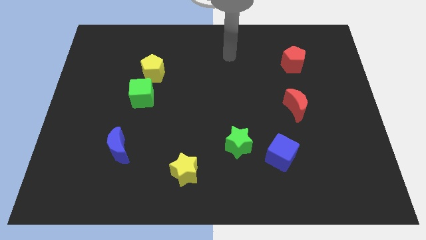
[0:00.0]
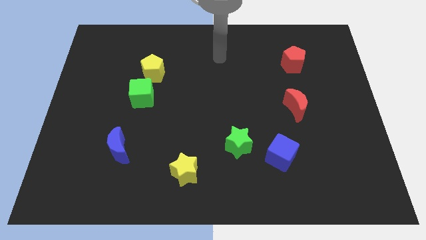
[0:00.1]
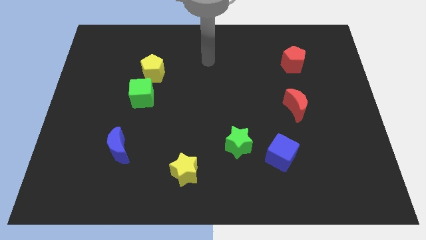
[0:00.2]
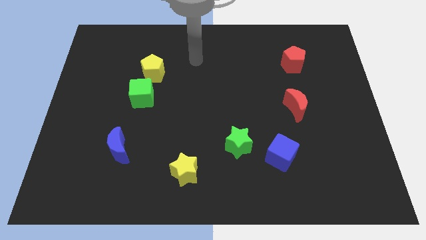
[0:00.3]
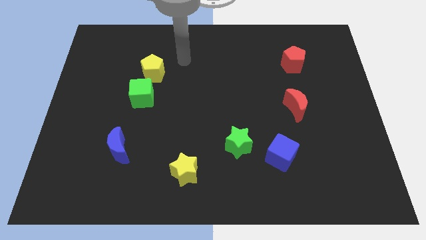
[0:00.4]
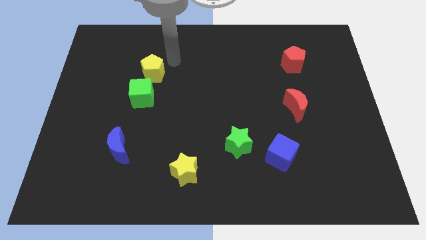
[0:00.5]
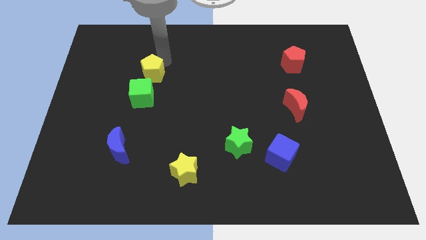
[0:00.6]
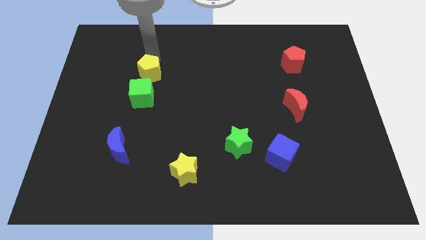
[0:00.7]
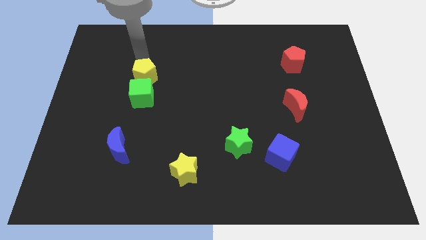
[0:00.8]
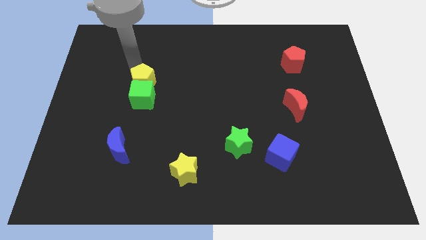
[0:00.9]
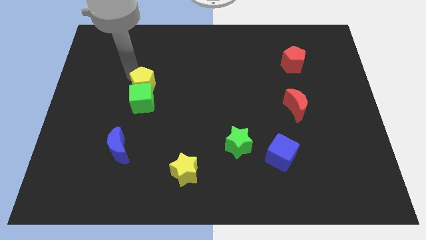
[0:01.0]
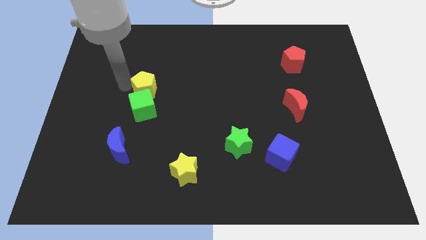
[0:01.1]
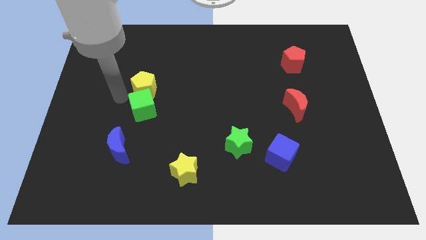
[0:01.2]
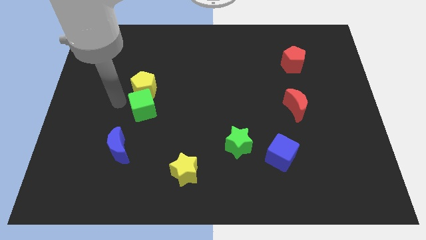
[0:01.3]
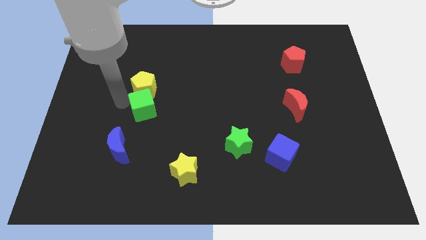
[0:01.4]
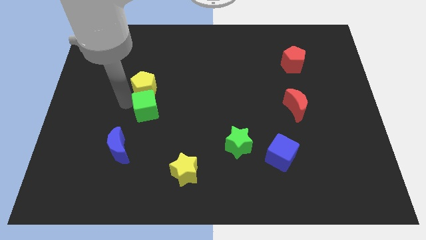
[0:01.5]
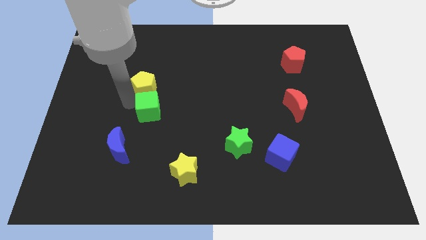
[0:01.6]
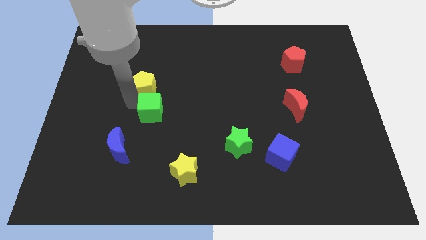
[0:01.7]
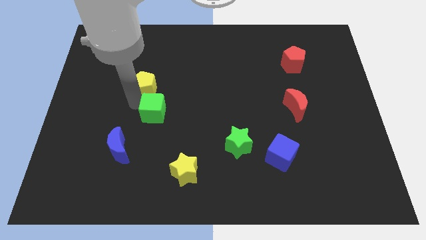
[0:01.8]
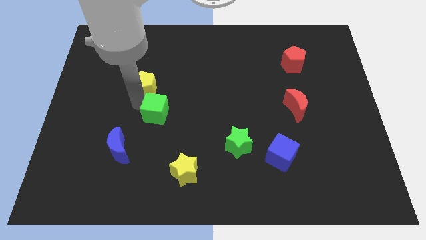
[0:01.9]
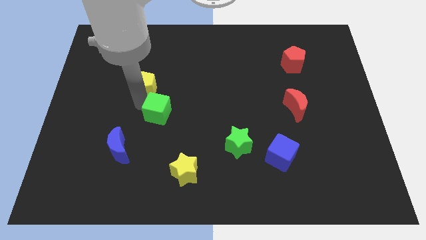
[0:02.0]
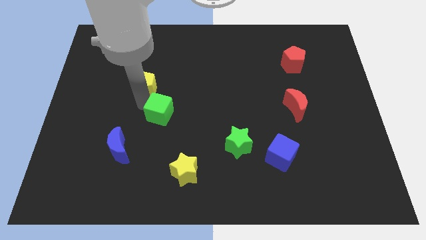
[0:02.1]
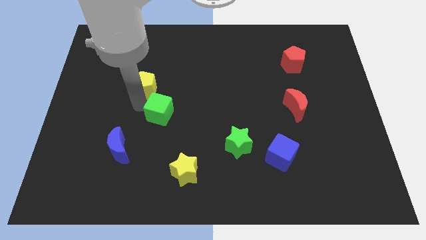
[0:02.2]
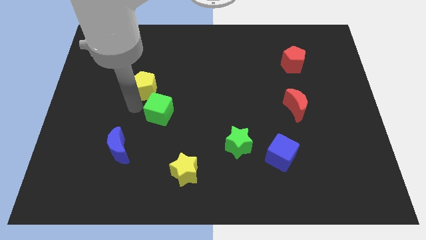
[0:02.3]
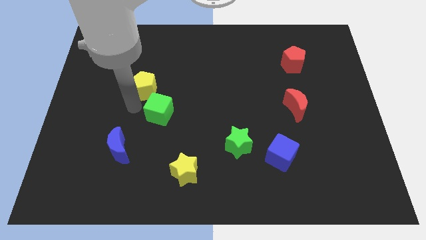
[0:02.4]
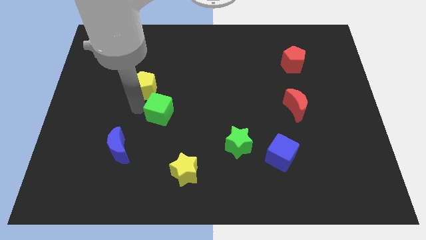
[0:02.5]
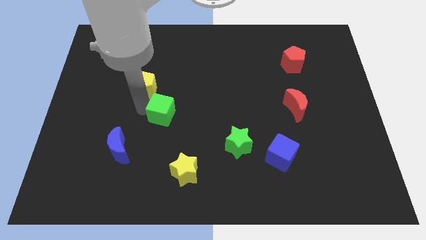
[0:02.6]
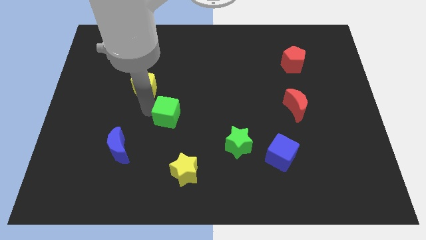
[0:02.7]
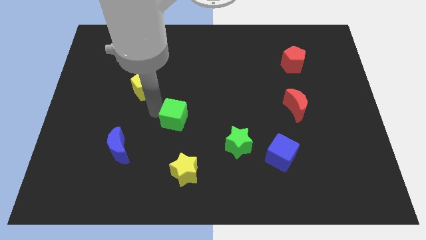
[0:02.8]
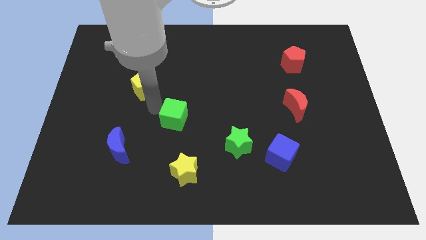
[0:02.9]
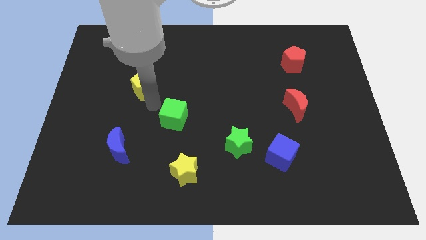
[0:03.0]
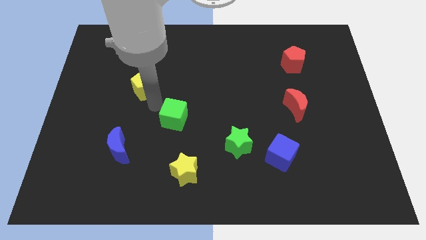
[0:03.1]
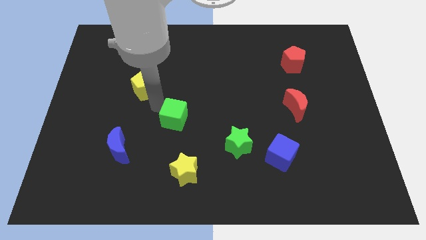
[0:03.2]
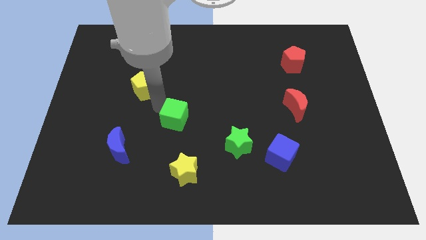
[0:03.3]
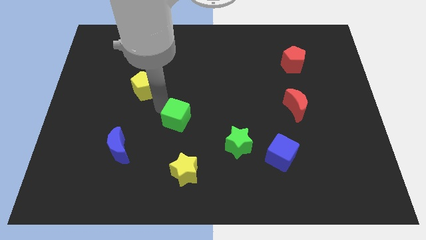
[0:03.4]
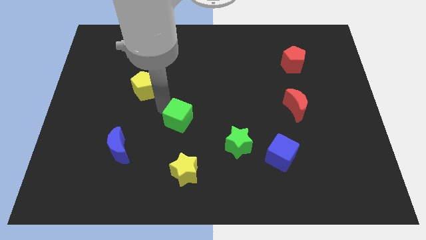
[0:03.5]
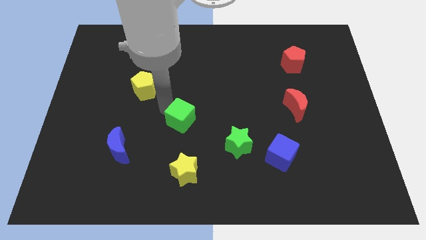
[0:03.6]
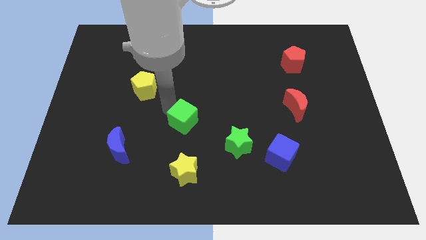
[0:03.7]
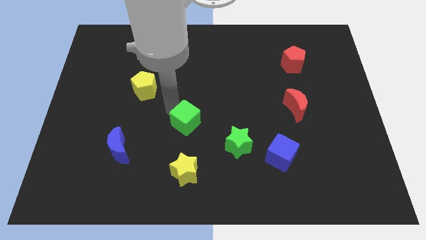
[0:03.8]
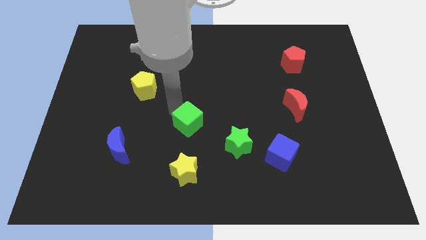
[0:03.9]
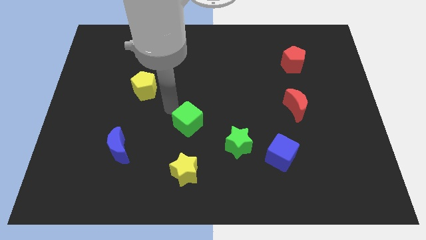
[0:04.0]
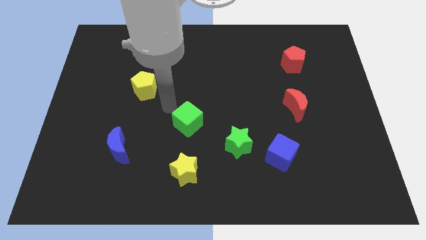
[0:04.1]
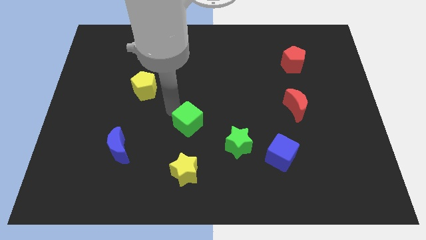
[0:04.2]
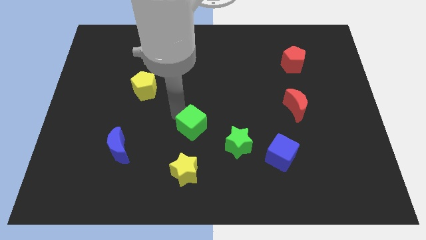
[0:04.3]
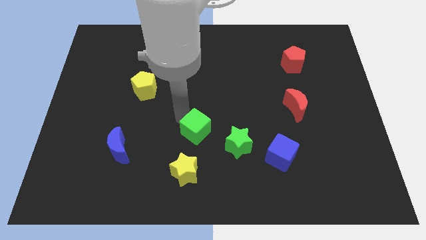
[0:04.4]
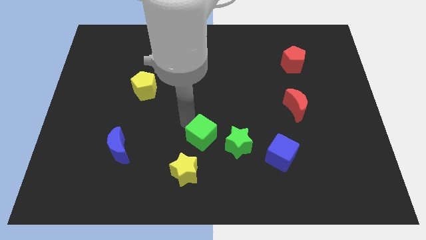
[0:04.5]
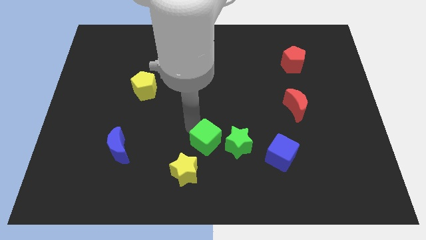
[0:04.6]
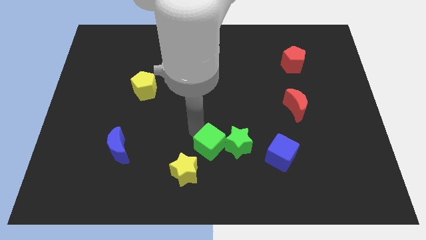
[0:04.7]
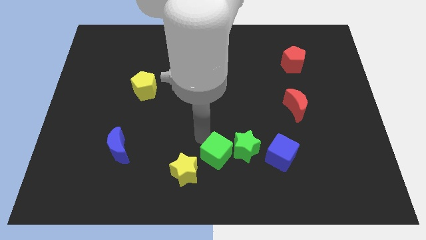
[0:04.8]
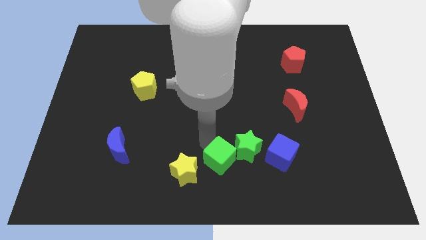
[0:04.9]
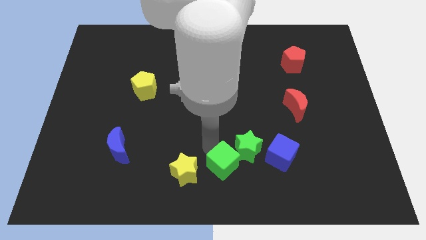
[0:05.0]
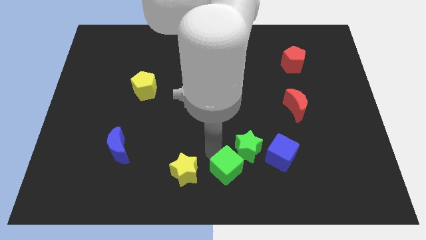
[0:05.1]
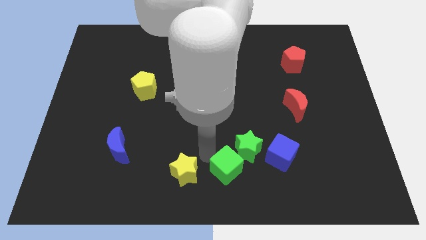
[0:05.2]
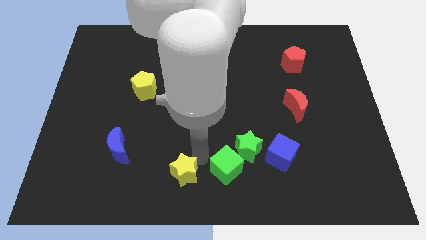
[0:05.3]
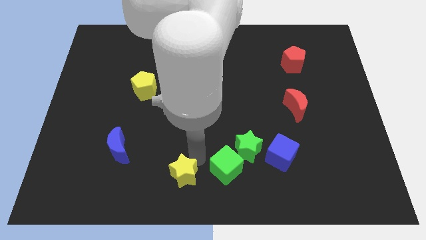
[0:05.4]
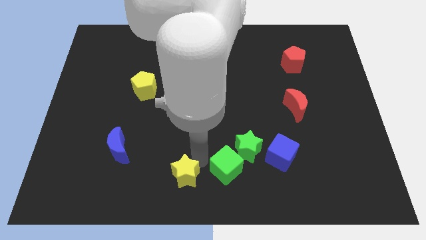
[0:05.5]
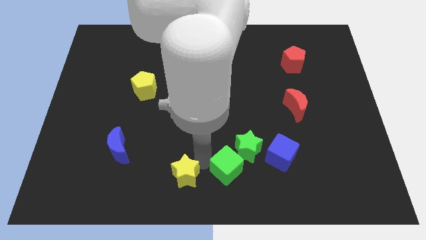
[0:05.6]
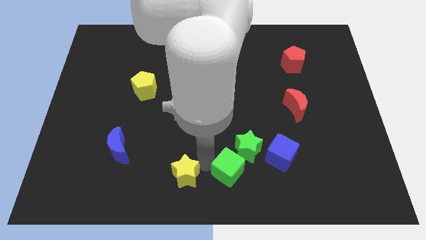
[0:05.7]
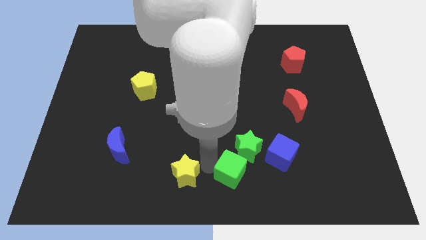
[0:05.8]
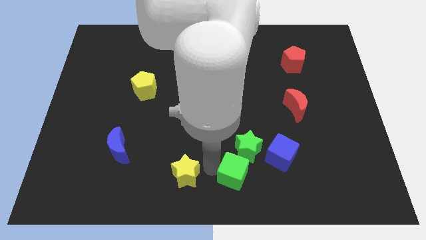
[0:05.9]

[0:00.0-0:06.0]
slide the green cube to the bottom left side of the blue cube
